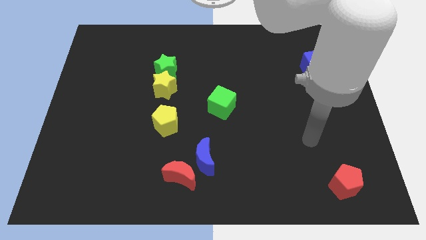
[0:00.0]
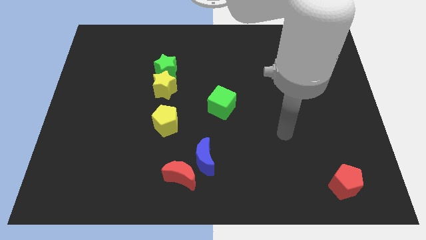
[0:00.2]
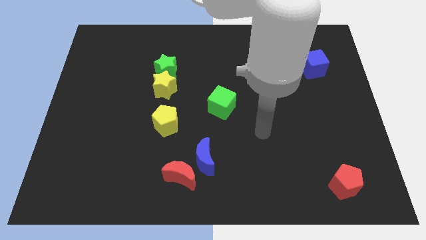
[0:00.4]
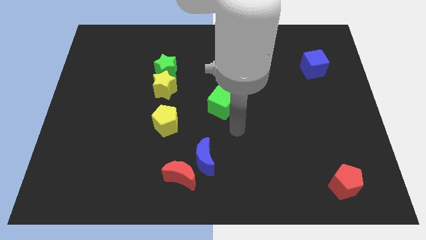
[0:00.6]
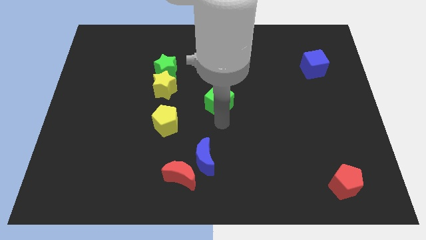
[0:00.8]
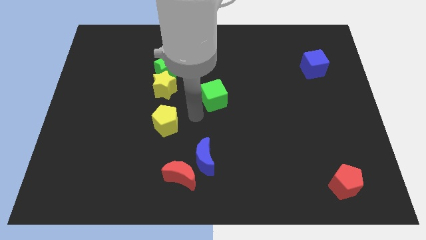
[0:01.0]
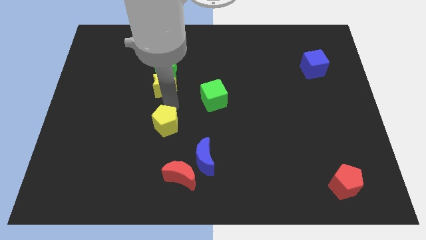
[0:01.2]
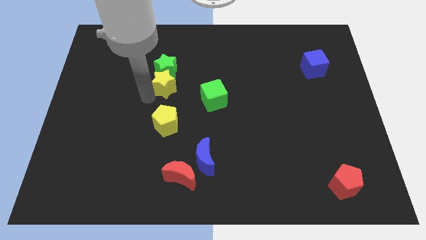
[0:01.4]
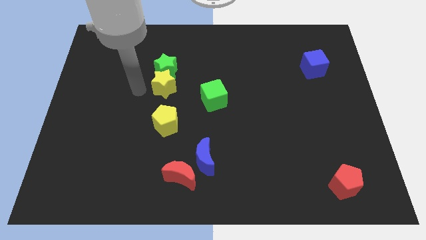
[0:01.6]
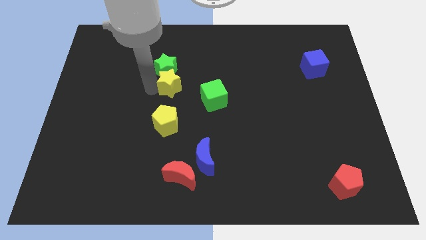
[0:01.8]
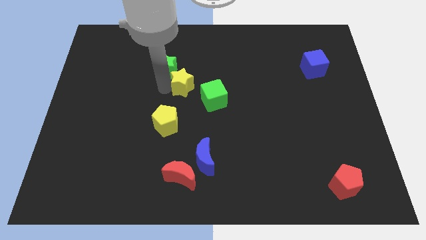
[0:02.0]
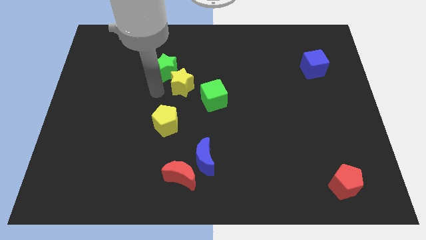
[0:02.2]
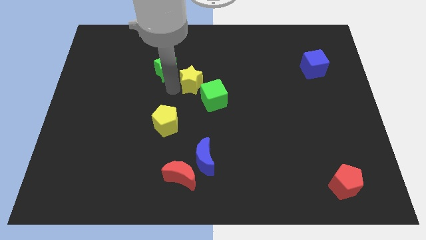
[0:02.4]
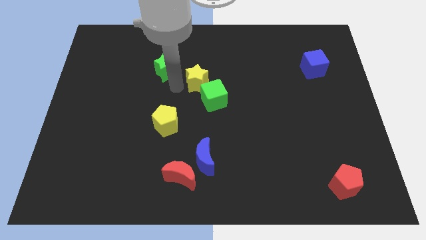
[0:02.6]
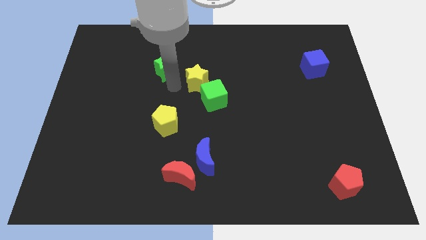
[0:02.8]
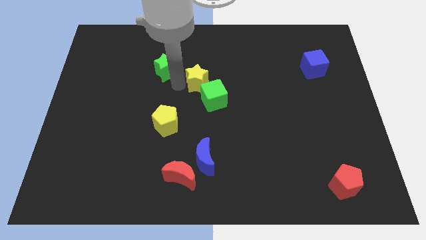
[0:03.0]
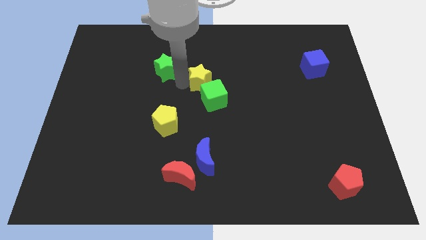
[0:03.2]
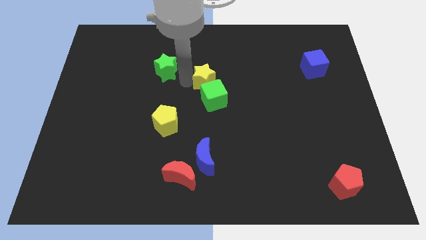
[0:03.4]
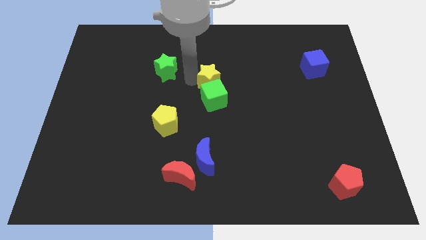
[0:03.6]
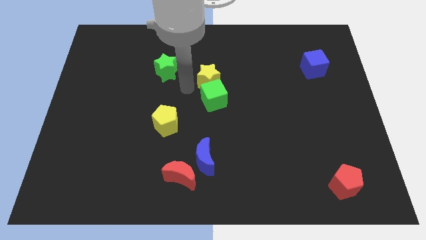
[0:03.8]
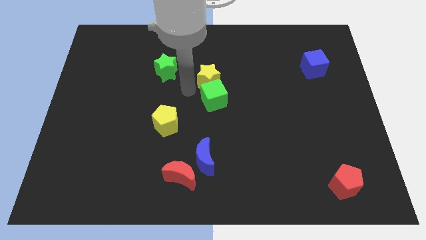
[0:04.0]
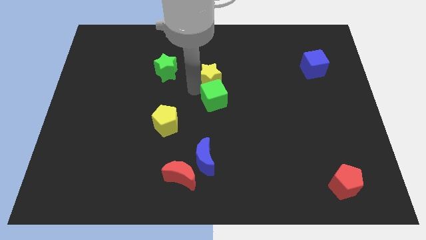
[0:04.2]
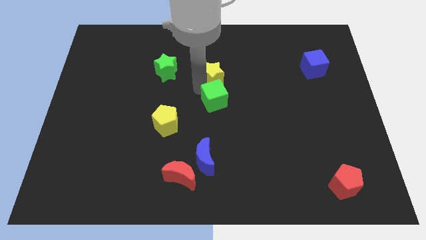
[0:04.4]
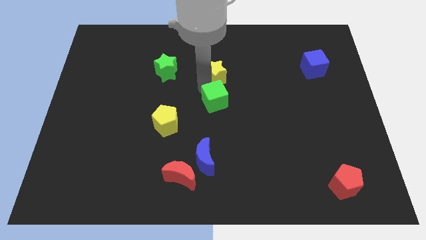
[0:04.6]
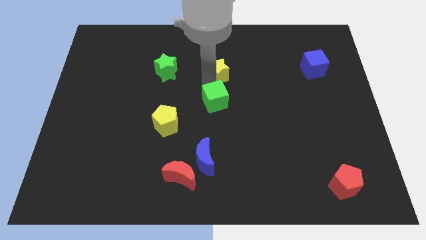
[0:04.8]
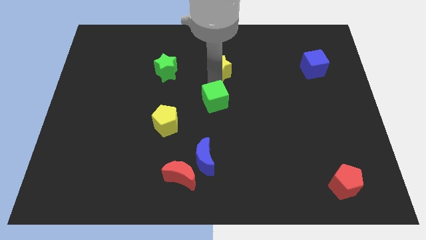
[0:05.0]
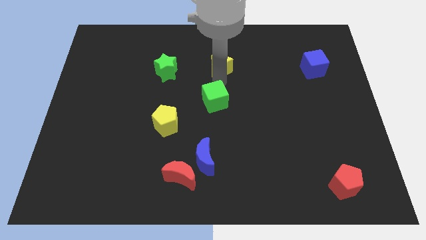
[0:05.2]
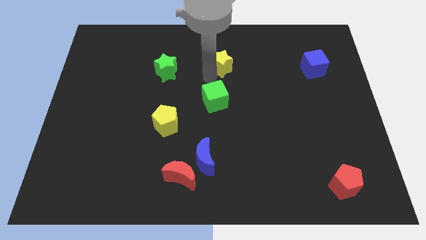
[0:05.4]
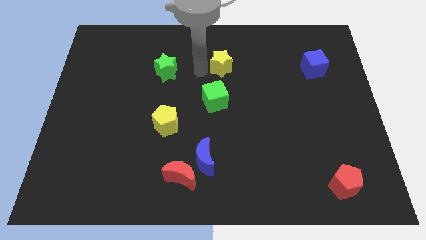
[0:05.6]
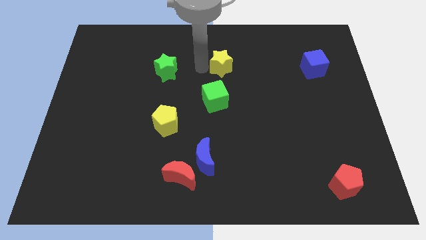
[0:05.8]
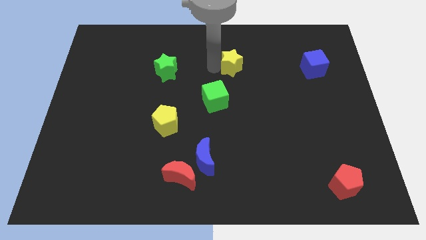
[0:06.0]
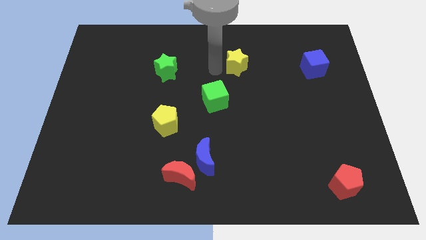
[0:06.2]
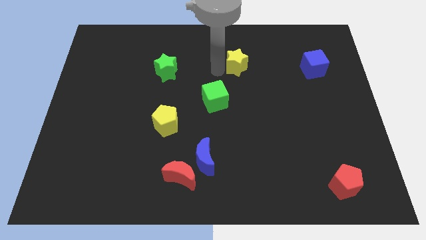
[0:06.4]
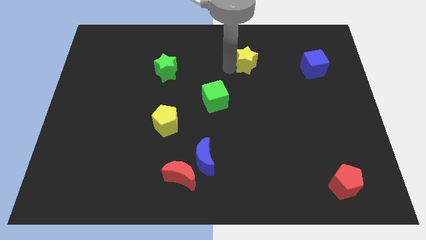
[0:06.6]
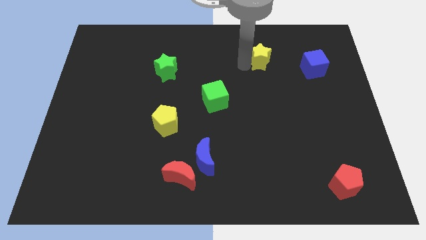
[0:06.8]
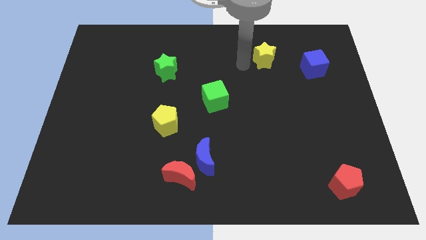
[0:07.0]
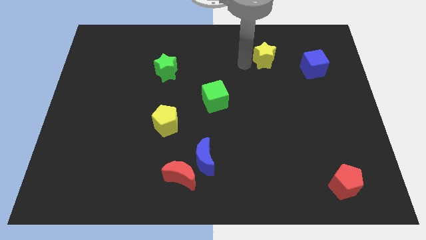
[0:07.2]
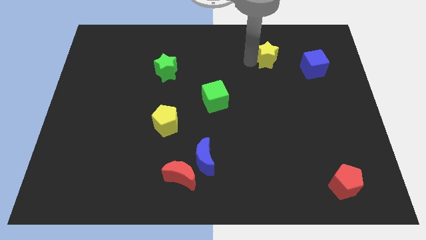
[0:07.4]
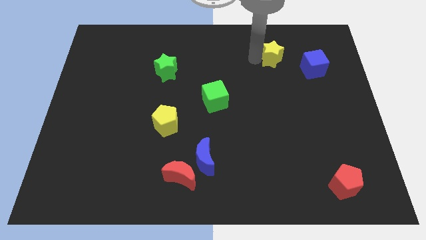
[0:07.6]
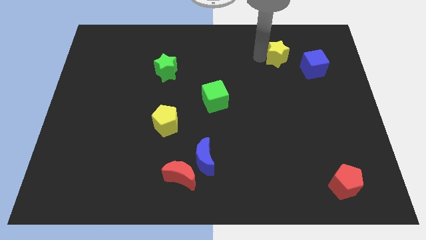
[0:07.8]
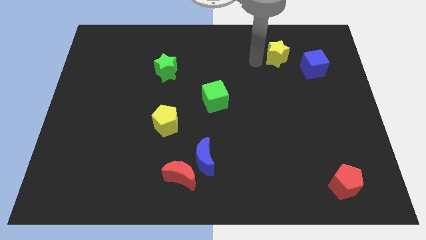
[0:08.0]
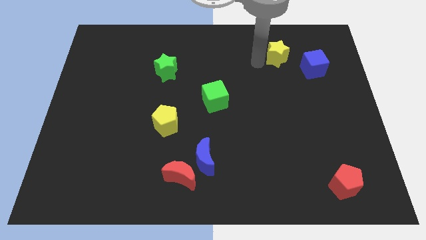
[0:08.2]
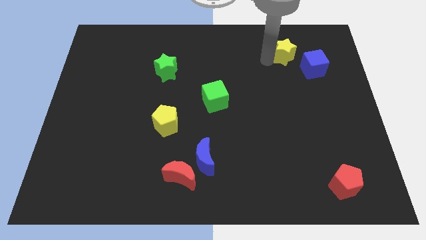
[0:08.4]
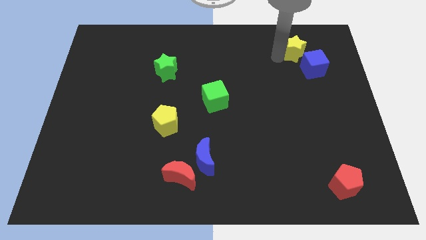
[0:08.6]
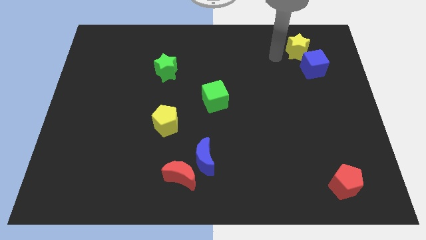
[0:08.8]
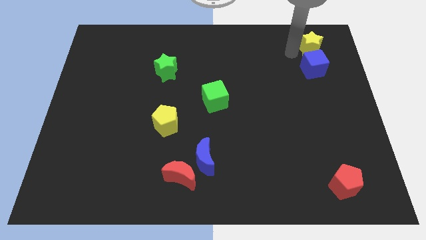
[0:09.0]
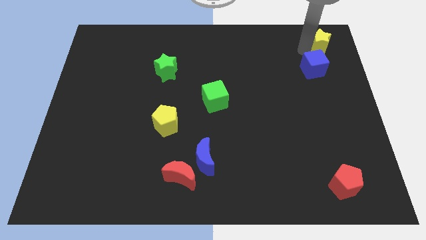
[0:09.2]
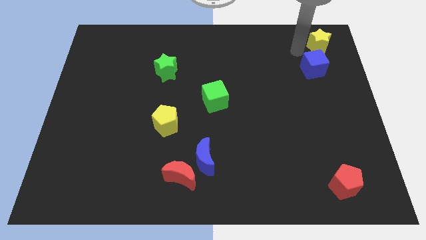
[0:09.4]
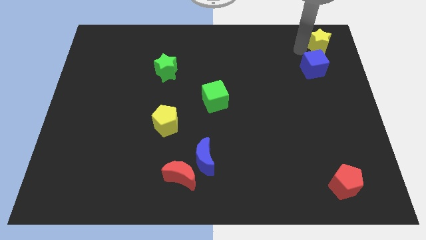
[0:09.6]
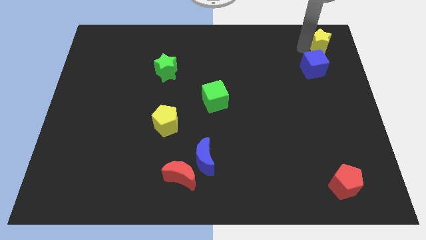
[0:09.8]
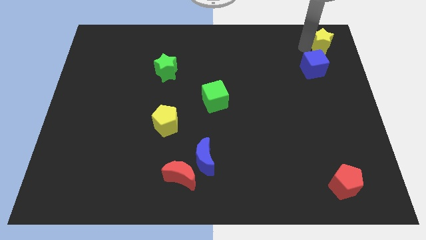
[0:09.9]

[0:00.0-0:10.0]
move the yellow star to the top right of the board

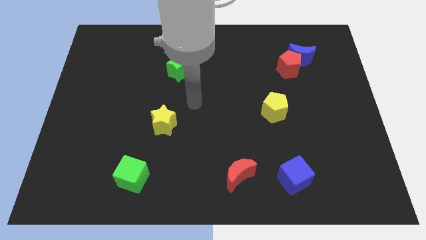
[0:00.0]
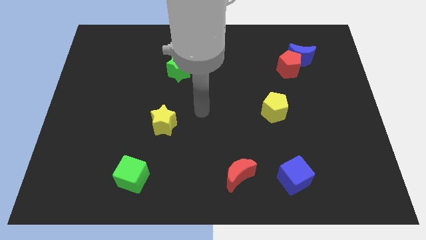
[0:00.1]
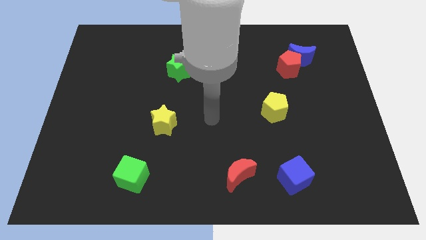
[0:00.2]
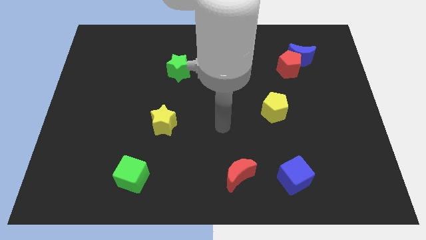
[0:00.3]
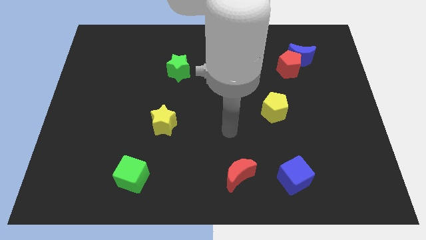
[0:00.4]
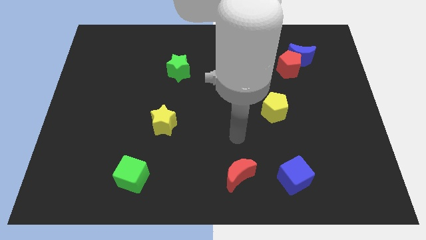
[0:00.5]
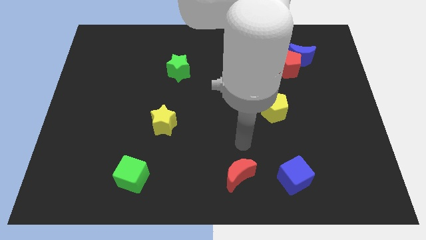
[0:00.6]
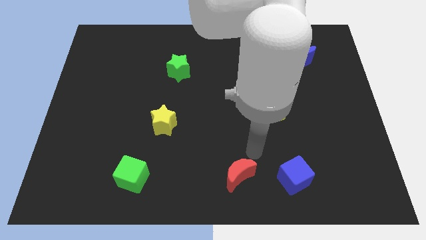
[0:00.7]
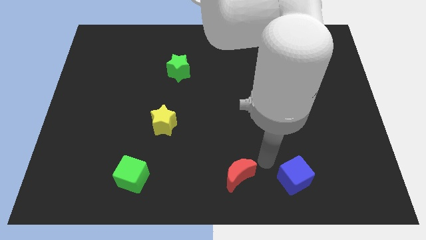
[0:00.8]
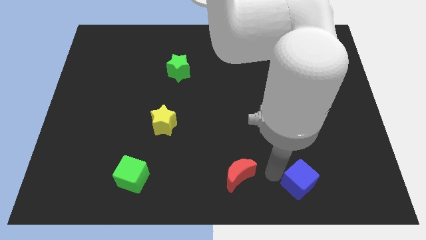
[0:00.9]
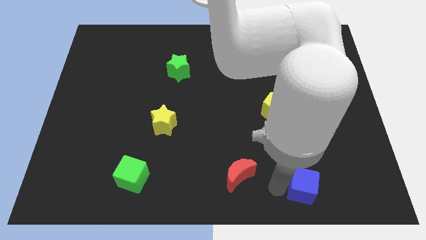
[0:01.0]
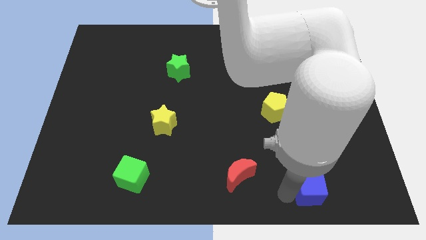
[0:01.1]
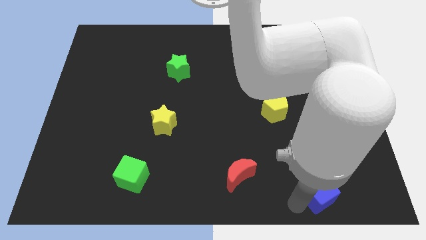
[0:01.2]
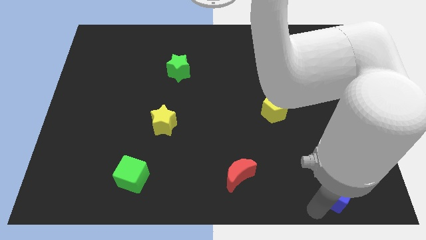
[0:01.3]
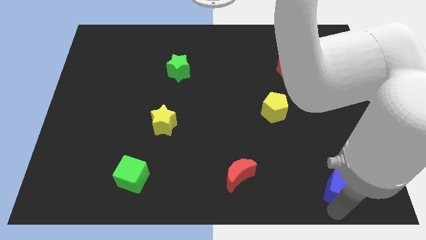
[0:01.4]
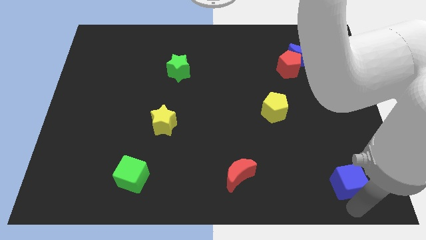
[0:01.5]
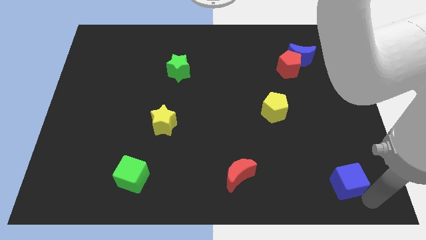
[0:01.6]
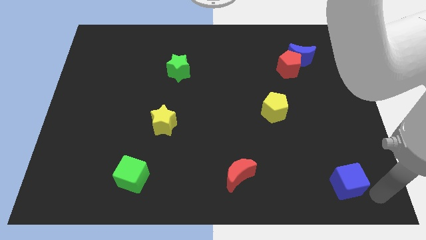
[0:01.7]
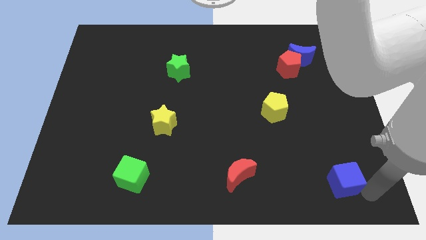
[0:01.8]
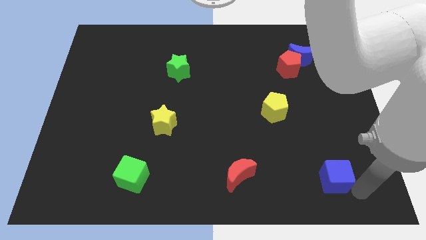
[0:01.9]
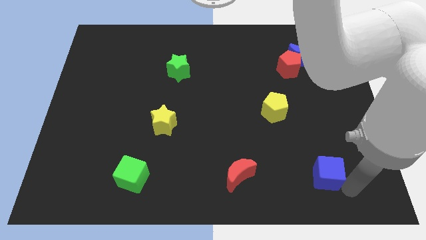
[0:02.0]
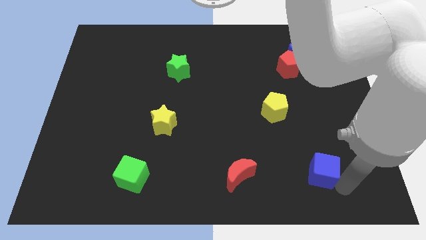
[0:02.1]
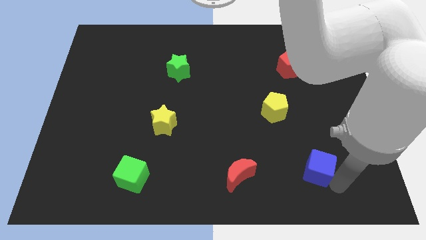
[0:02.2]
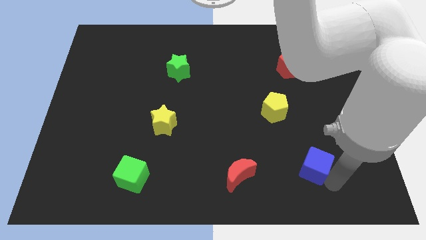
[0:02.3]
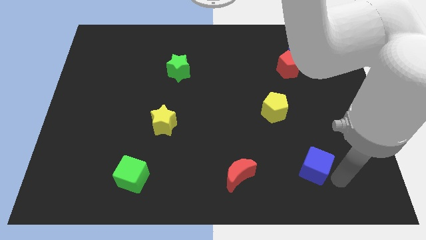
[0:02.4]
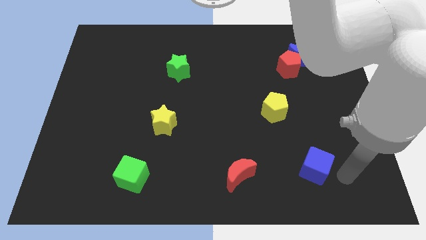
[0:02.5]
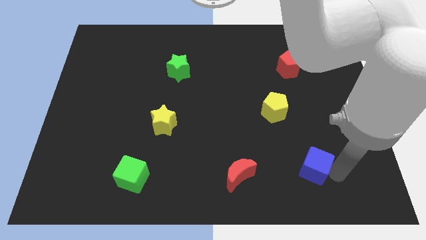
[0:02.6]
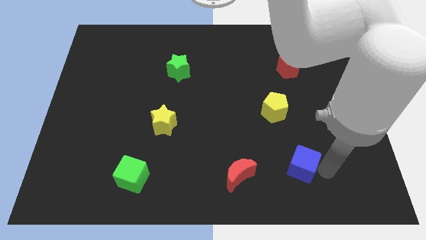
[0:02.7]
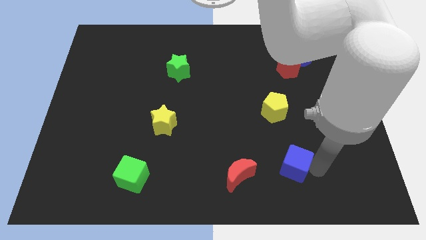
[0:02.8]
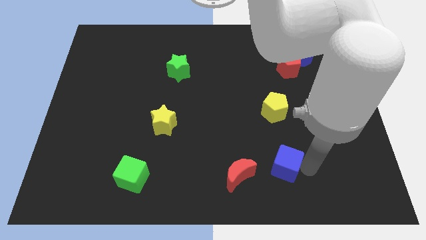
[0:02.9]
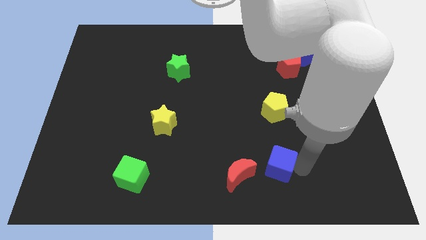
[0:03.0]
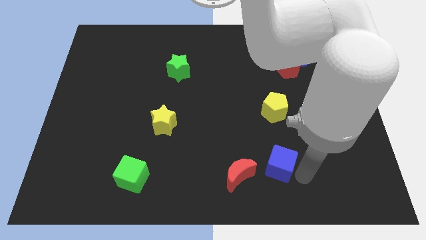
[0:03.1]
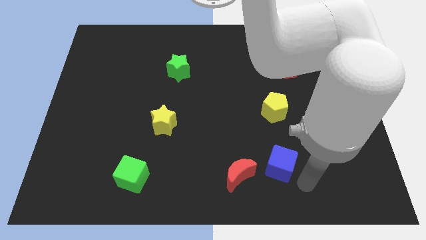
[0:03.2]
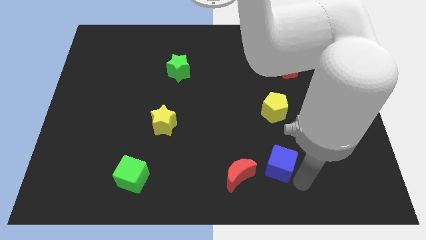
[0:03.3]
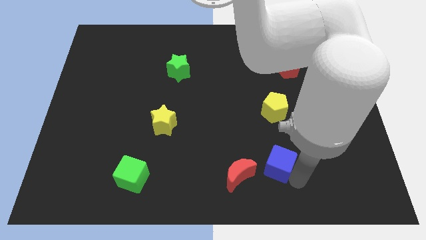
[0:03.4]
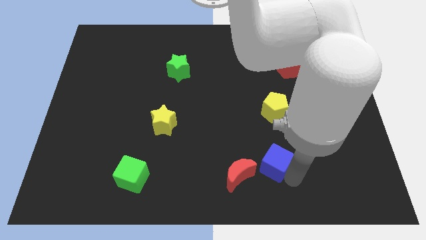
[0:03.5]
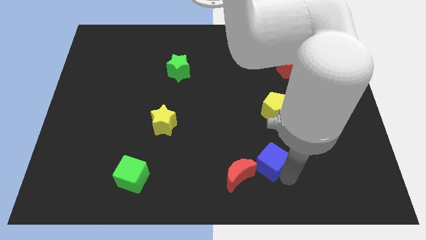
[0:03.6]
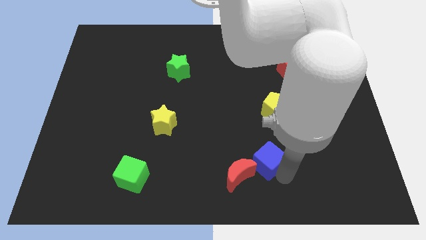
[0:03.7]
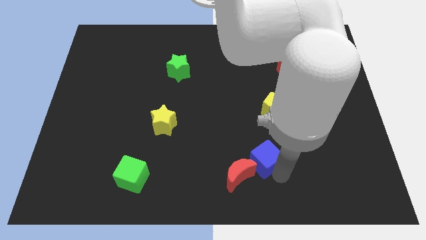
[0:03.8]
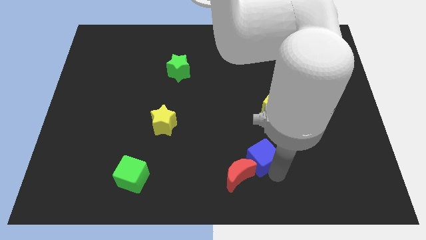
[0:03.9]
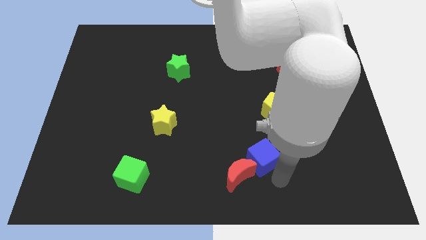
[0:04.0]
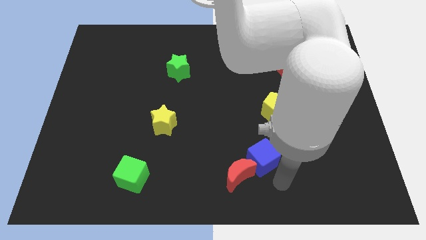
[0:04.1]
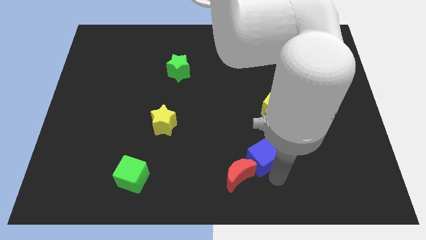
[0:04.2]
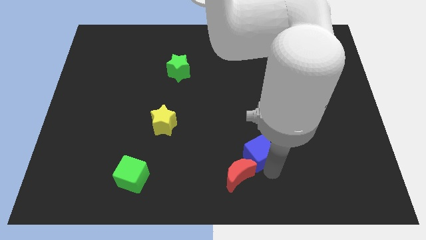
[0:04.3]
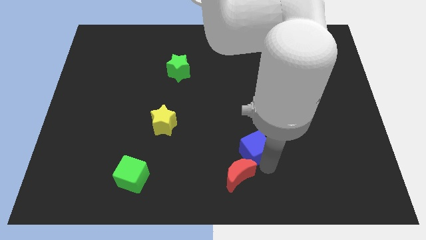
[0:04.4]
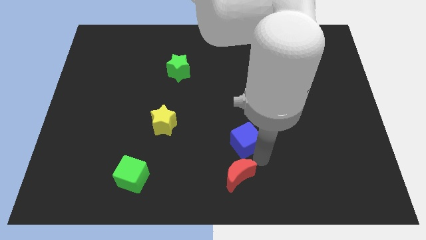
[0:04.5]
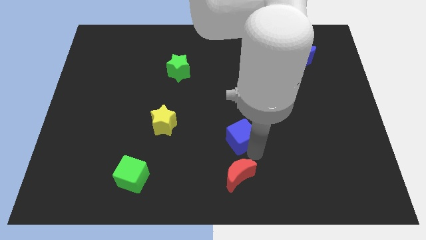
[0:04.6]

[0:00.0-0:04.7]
put the blue cube to the center
